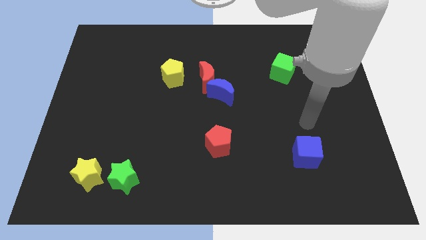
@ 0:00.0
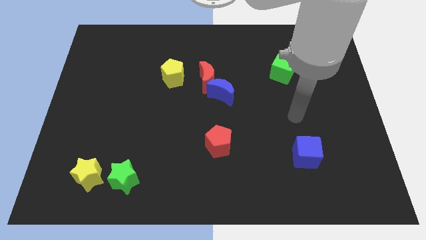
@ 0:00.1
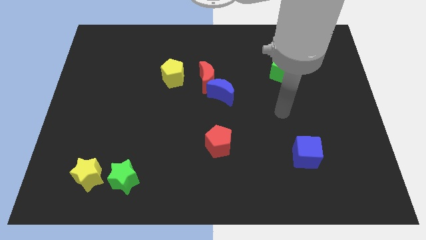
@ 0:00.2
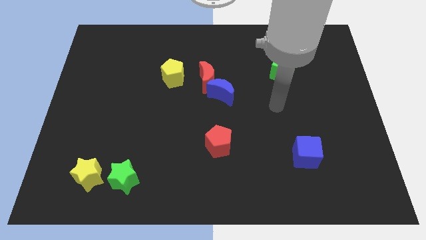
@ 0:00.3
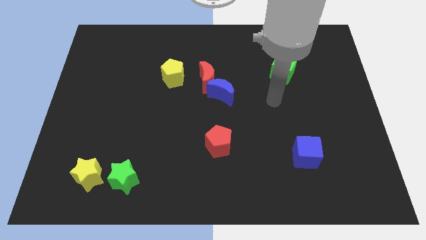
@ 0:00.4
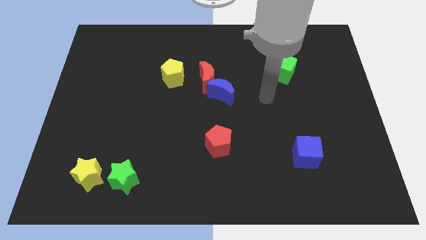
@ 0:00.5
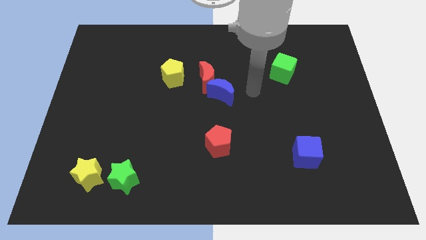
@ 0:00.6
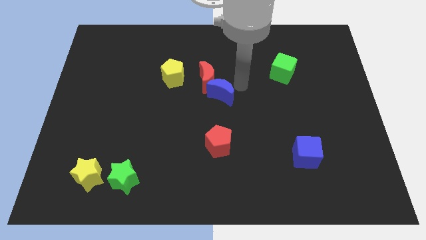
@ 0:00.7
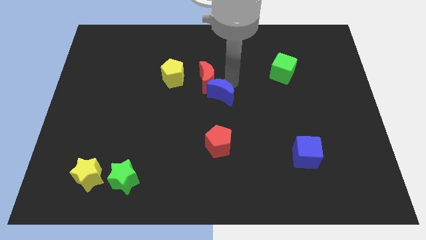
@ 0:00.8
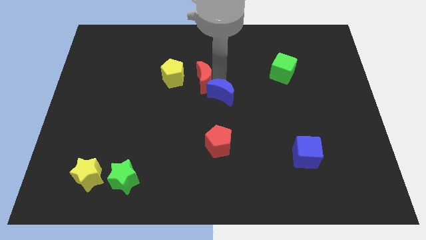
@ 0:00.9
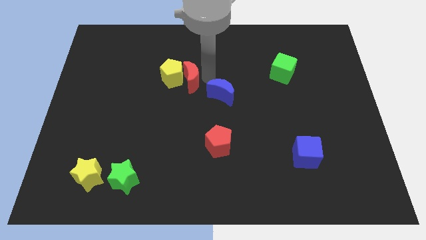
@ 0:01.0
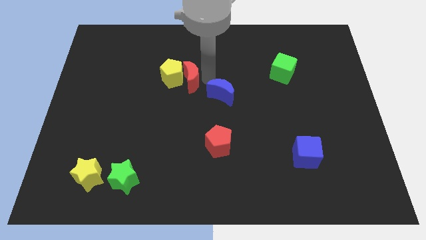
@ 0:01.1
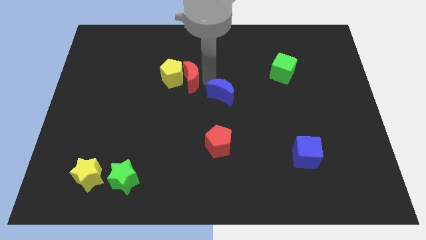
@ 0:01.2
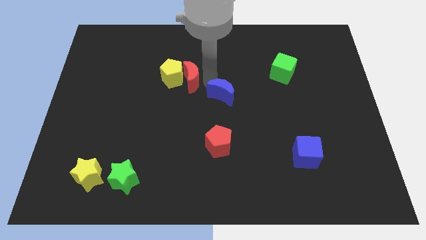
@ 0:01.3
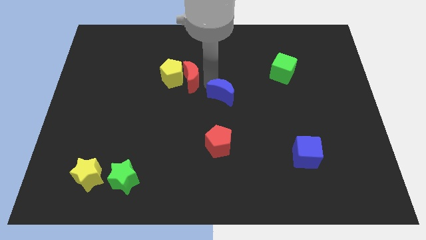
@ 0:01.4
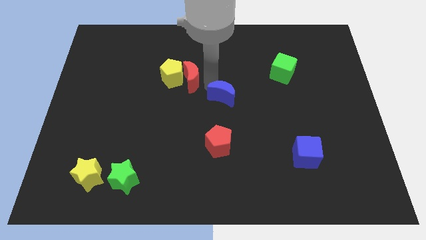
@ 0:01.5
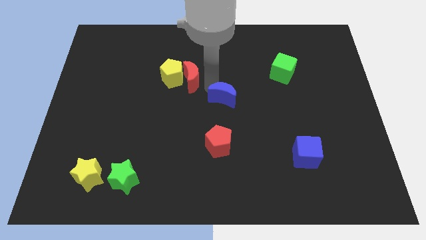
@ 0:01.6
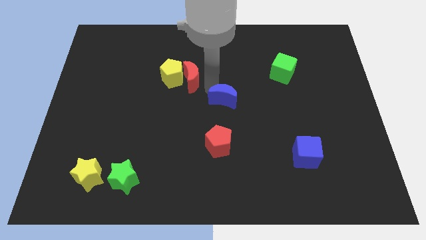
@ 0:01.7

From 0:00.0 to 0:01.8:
move the blue moon away from the red moon

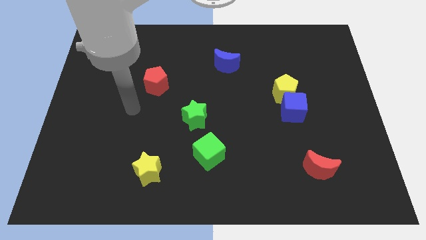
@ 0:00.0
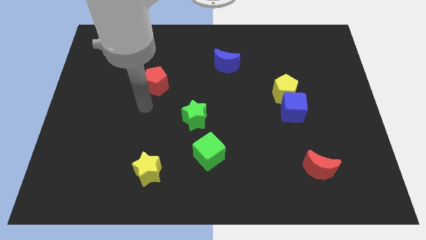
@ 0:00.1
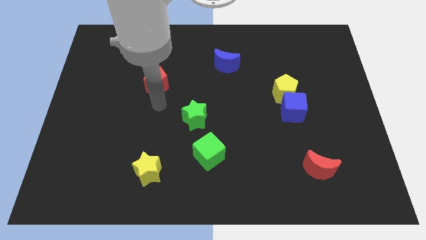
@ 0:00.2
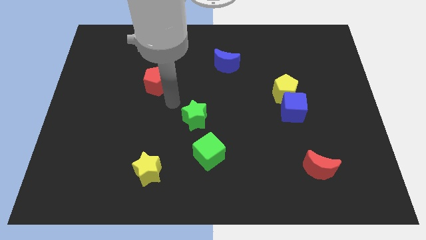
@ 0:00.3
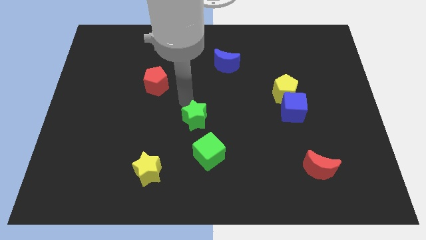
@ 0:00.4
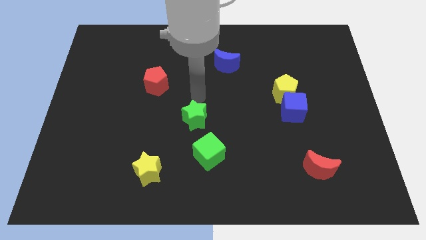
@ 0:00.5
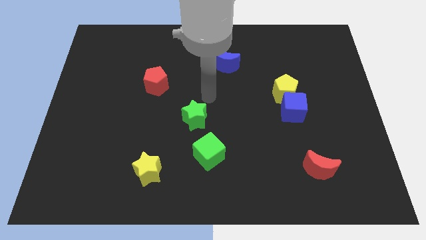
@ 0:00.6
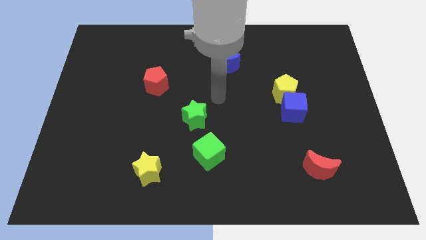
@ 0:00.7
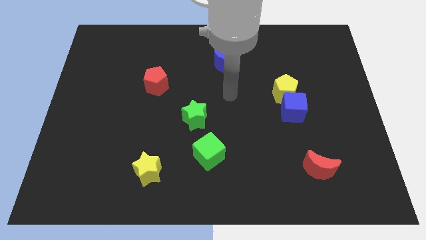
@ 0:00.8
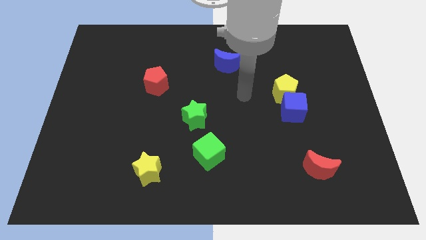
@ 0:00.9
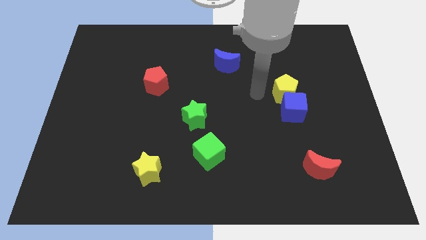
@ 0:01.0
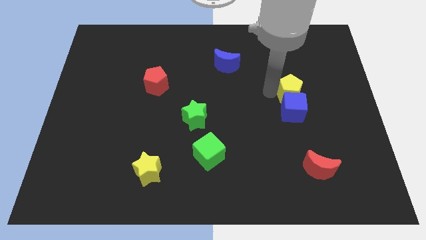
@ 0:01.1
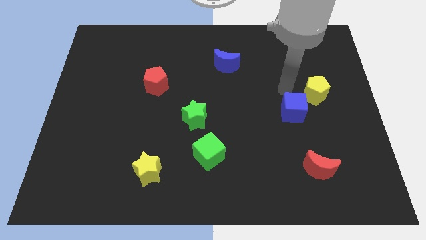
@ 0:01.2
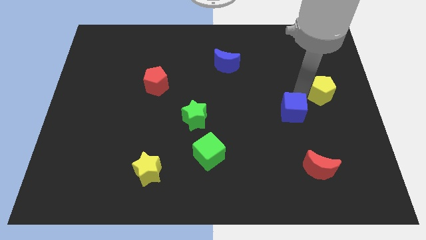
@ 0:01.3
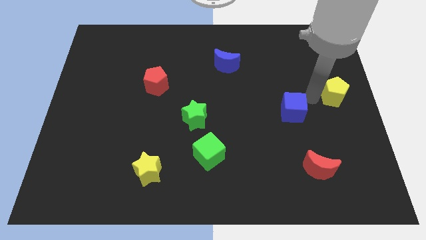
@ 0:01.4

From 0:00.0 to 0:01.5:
pull the blue cube apart from the yellow pentagon

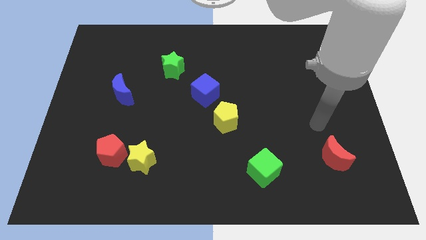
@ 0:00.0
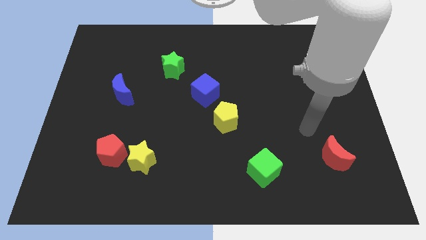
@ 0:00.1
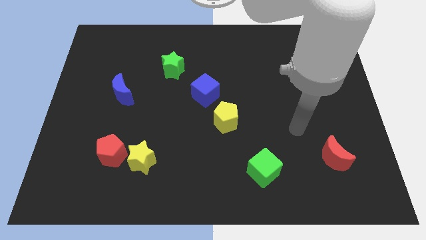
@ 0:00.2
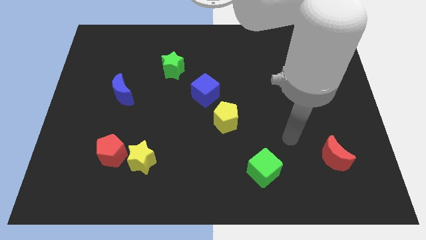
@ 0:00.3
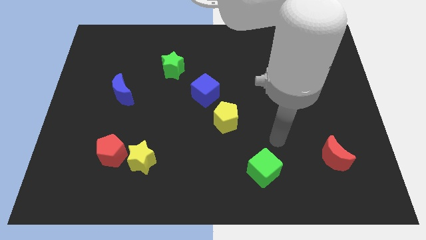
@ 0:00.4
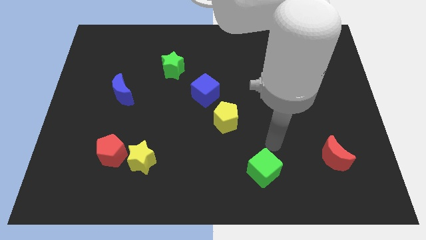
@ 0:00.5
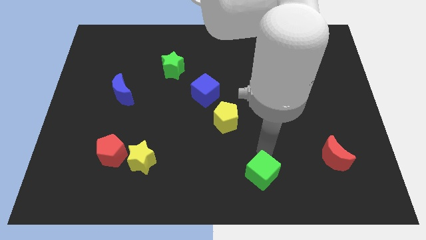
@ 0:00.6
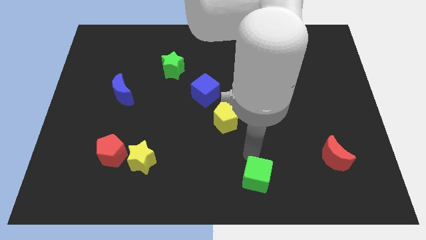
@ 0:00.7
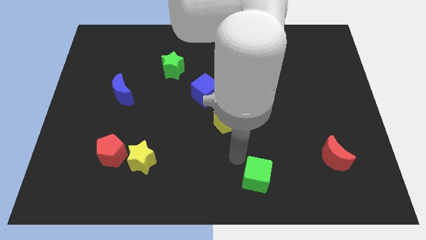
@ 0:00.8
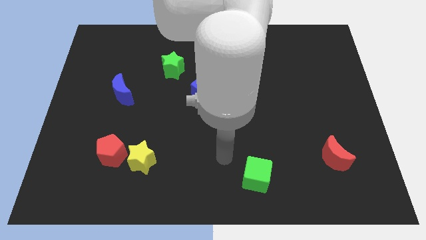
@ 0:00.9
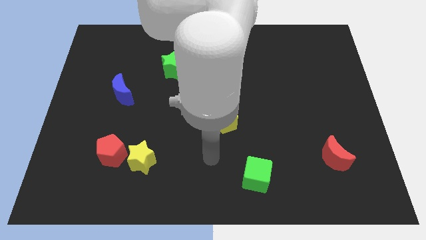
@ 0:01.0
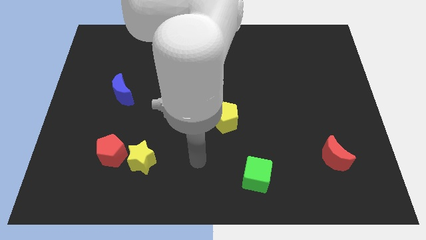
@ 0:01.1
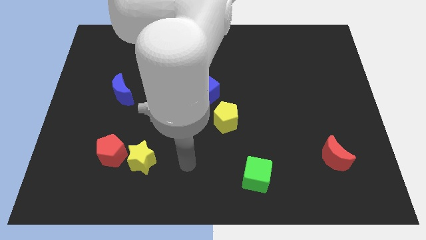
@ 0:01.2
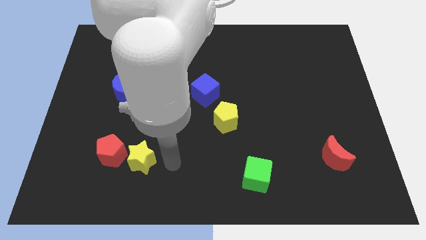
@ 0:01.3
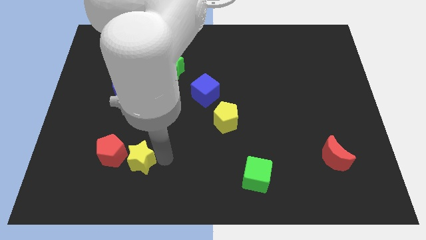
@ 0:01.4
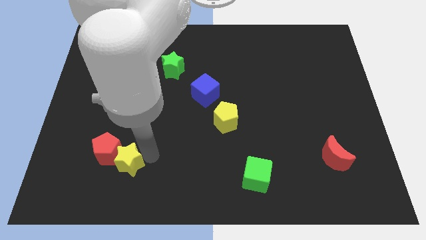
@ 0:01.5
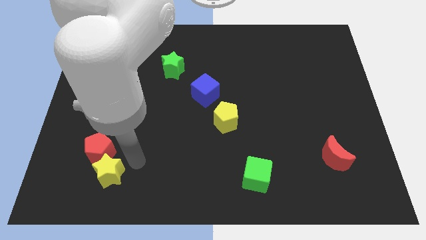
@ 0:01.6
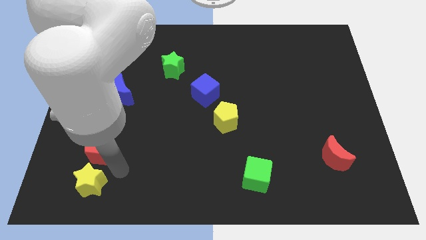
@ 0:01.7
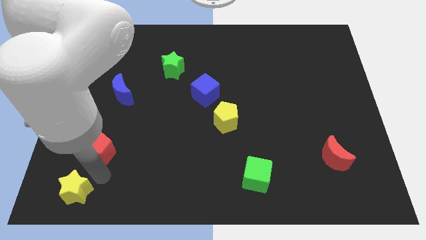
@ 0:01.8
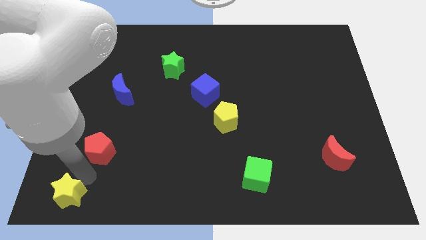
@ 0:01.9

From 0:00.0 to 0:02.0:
separate the red pentagon from the yellow star

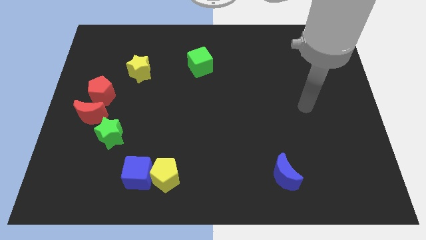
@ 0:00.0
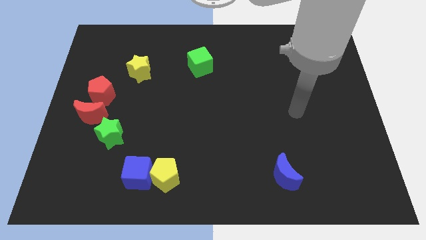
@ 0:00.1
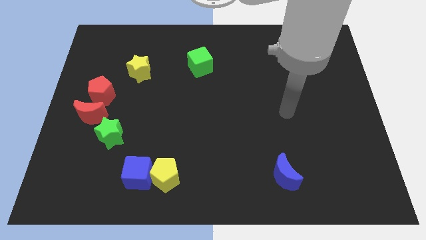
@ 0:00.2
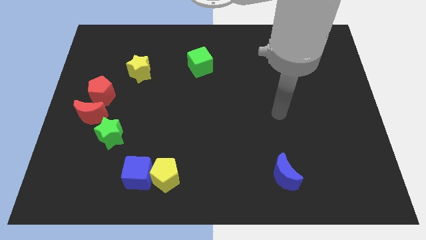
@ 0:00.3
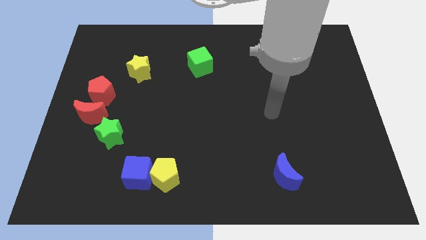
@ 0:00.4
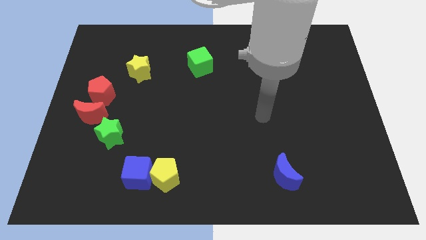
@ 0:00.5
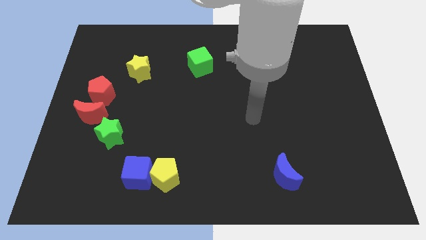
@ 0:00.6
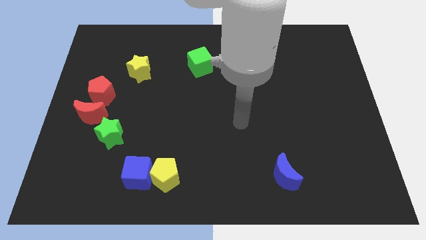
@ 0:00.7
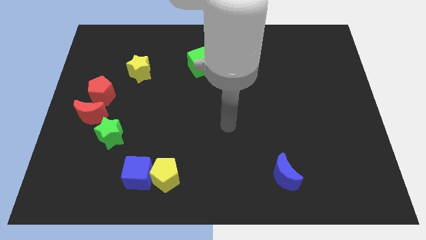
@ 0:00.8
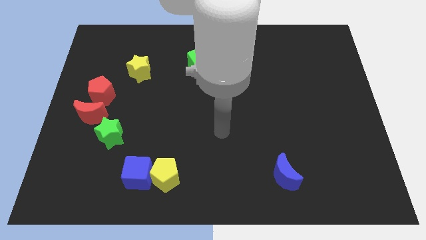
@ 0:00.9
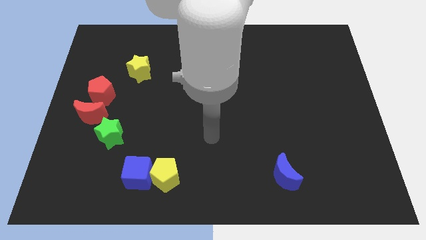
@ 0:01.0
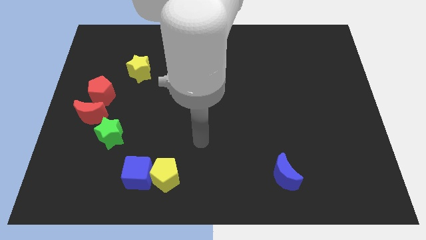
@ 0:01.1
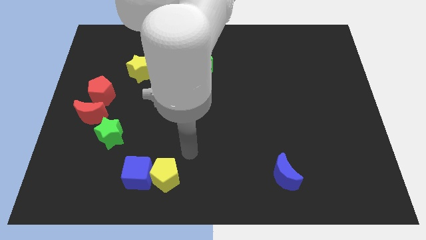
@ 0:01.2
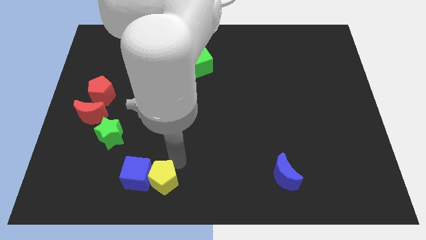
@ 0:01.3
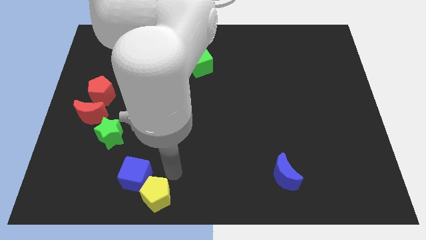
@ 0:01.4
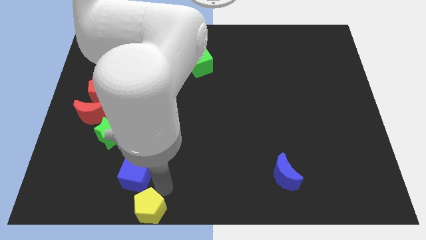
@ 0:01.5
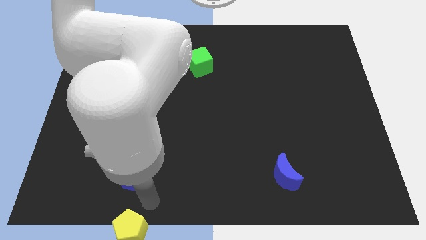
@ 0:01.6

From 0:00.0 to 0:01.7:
move the blue cube away from the yellow pentagon

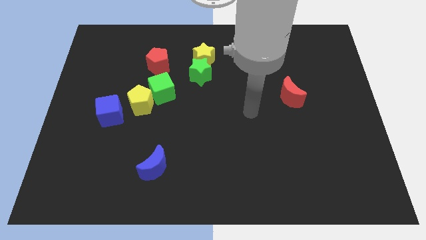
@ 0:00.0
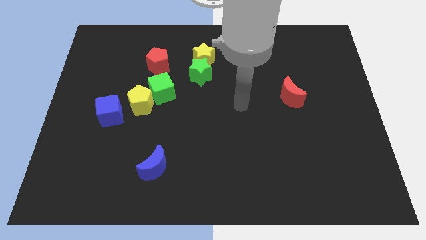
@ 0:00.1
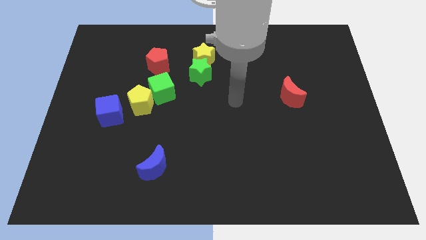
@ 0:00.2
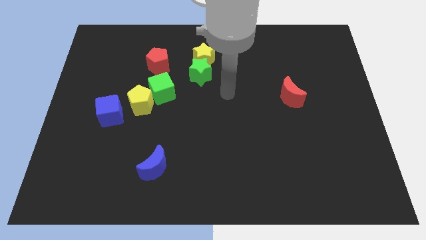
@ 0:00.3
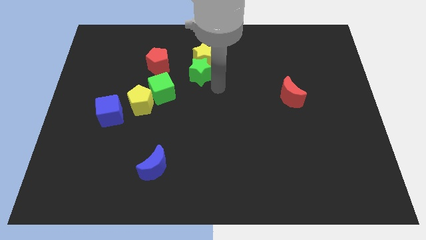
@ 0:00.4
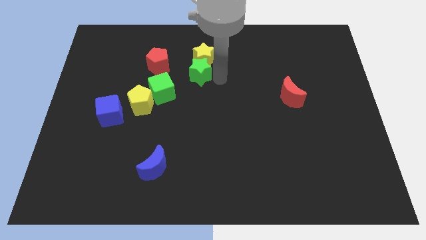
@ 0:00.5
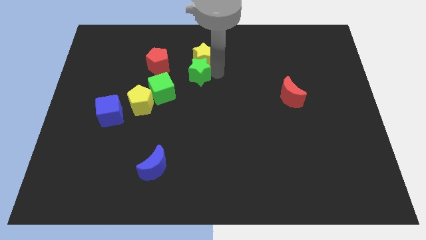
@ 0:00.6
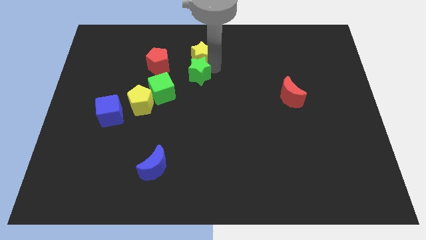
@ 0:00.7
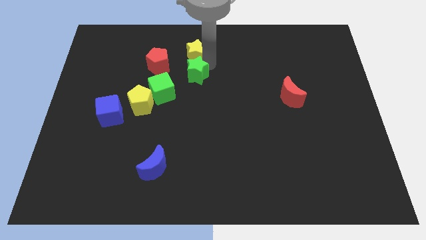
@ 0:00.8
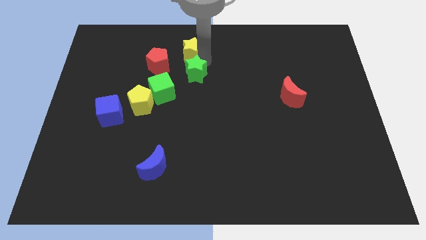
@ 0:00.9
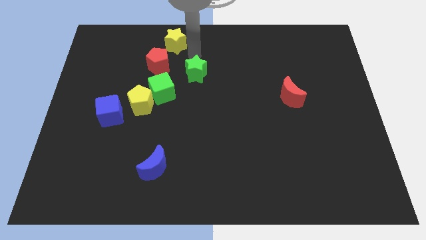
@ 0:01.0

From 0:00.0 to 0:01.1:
pull the green star apart from the yellow star

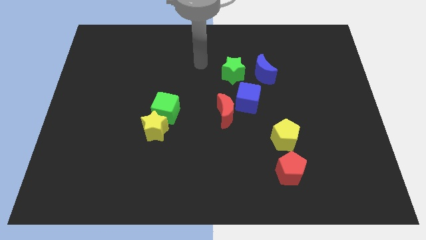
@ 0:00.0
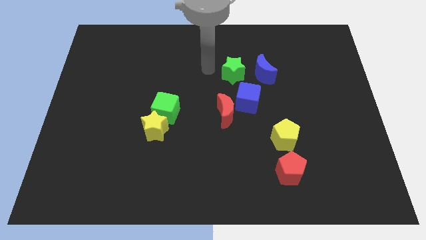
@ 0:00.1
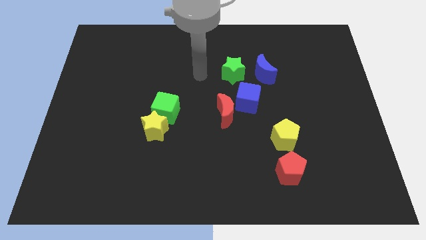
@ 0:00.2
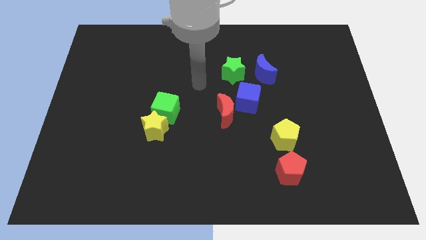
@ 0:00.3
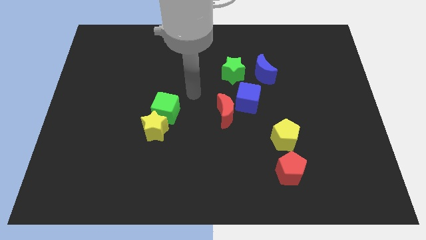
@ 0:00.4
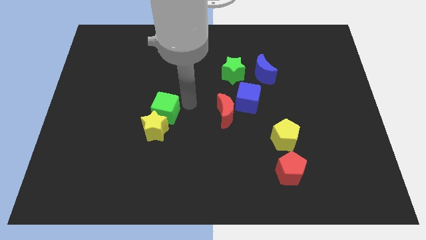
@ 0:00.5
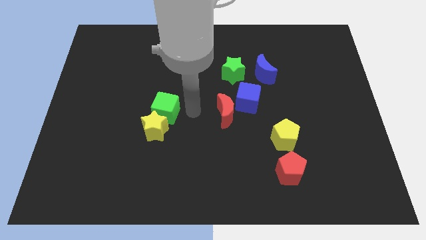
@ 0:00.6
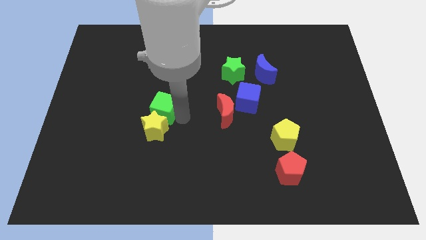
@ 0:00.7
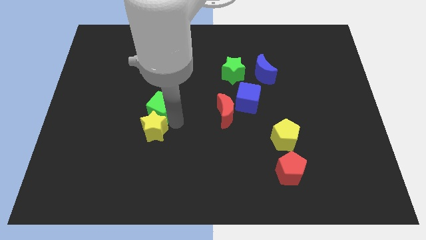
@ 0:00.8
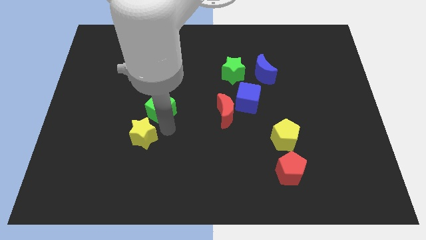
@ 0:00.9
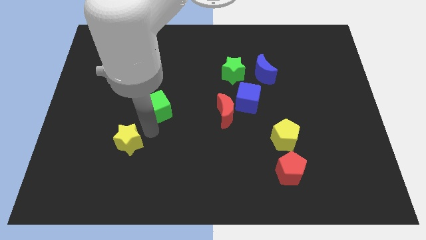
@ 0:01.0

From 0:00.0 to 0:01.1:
separate the green cube from the yellow star
